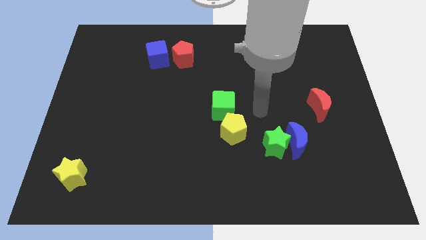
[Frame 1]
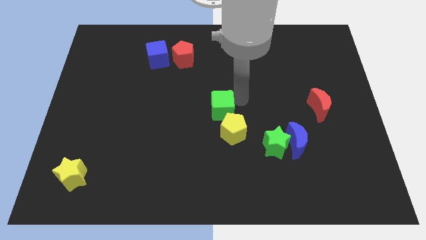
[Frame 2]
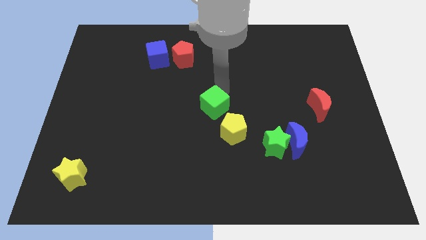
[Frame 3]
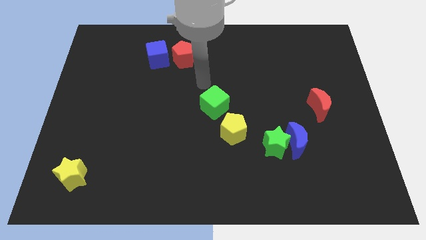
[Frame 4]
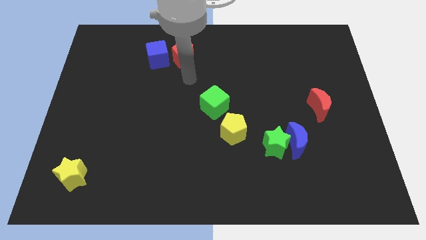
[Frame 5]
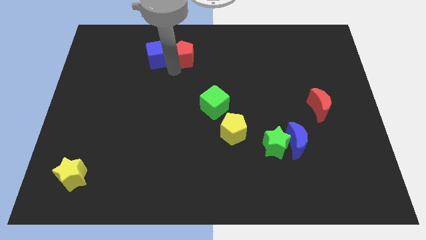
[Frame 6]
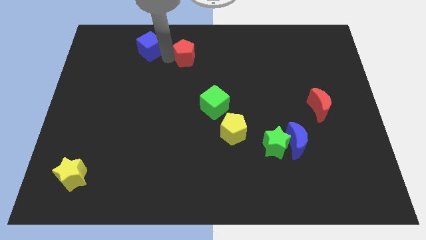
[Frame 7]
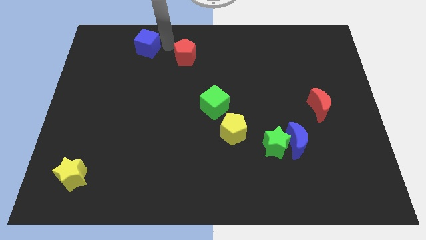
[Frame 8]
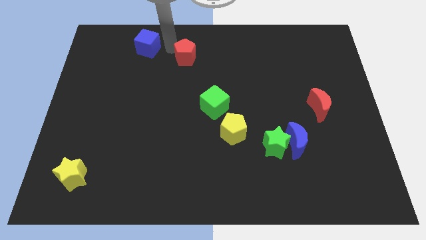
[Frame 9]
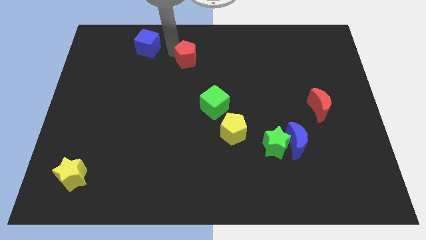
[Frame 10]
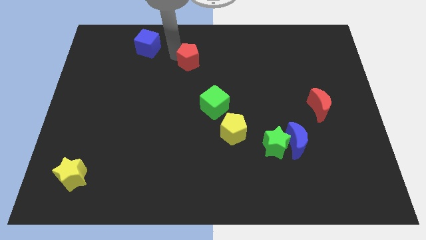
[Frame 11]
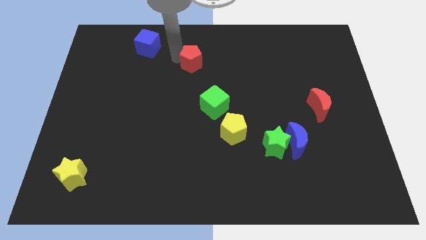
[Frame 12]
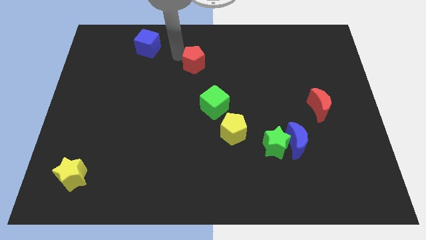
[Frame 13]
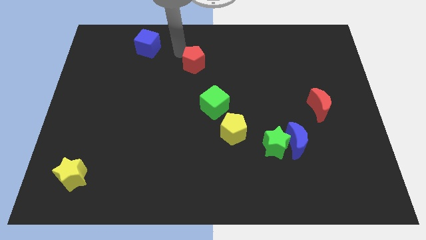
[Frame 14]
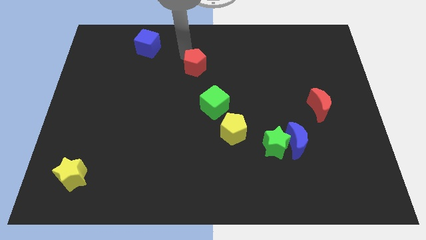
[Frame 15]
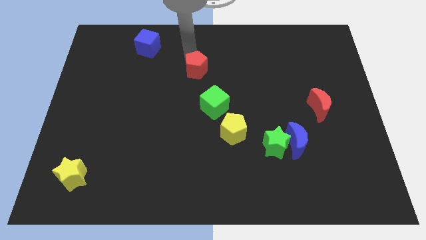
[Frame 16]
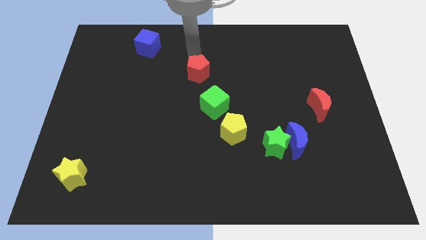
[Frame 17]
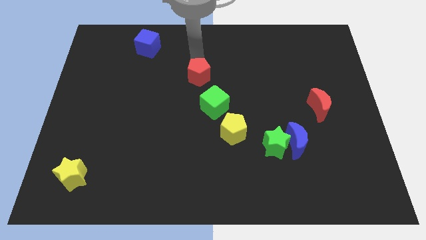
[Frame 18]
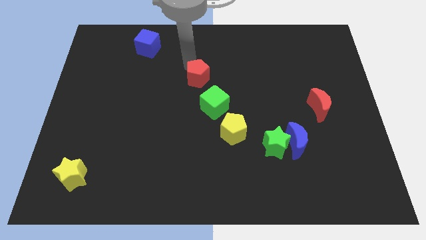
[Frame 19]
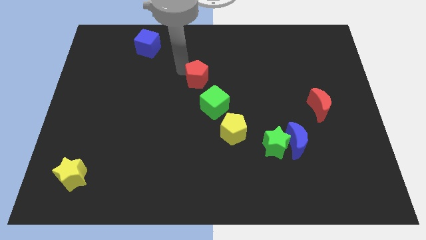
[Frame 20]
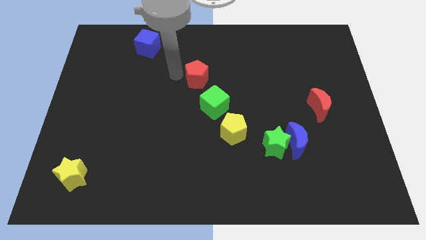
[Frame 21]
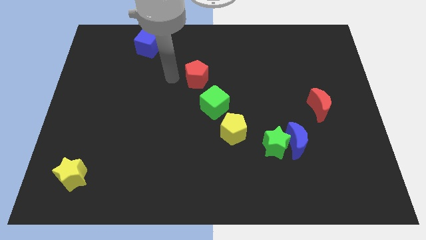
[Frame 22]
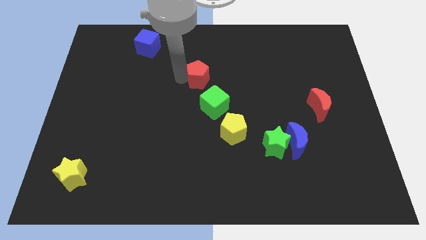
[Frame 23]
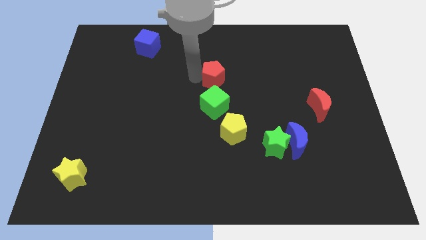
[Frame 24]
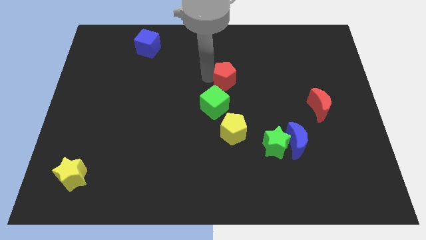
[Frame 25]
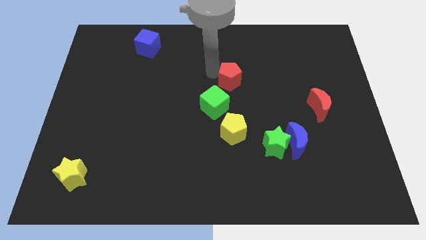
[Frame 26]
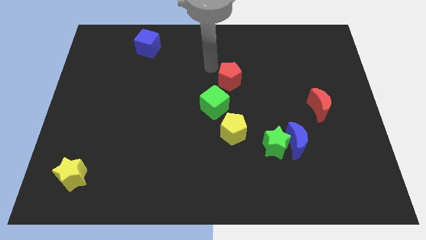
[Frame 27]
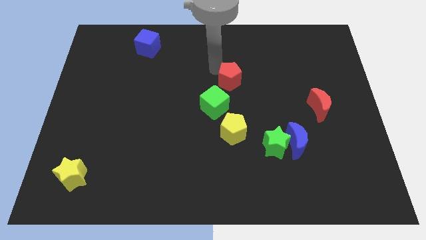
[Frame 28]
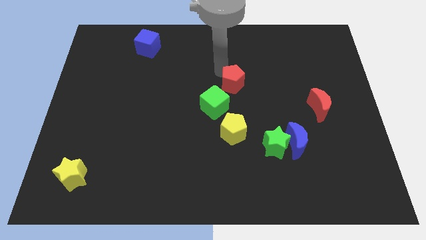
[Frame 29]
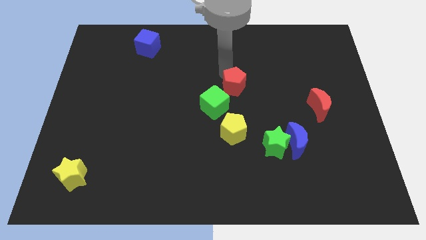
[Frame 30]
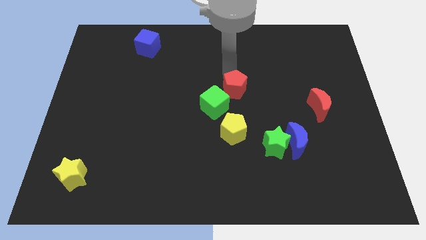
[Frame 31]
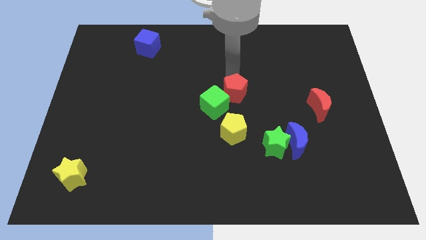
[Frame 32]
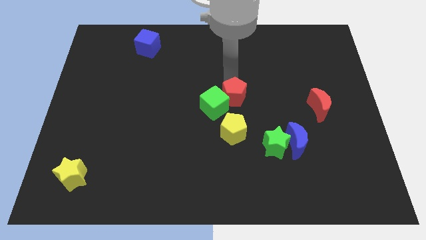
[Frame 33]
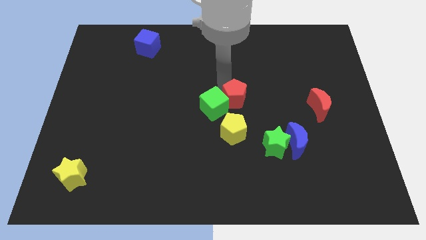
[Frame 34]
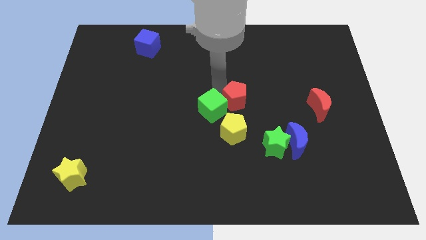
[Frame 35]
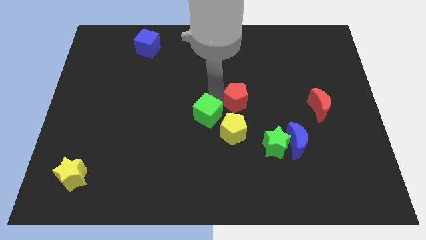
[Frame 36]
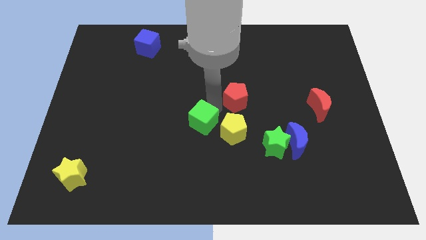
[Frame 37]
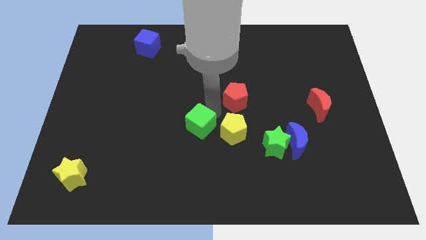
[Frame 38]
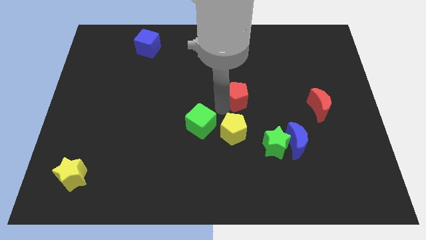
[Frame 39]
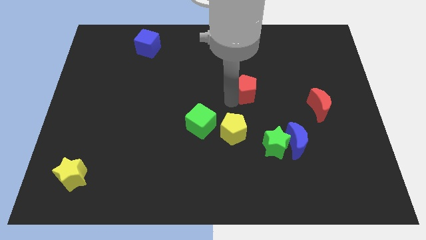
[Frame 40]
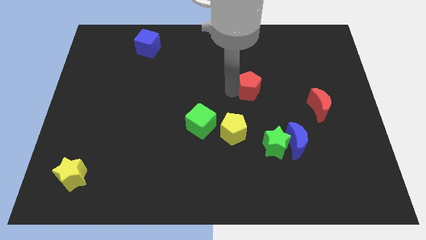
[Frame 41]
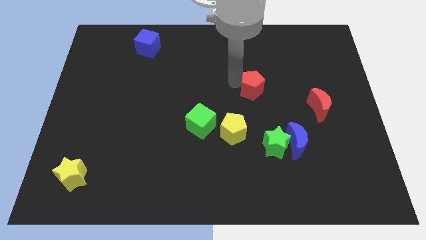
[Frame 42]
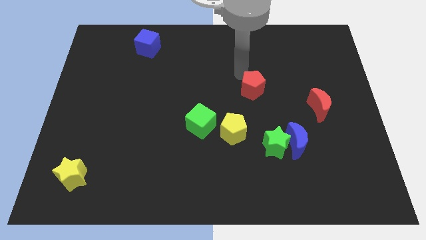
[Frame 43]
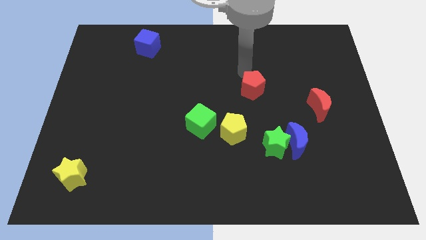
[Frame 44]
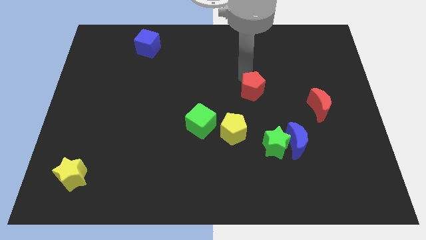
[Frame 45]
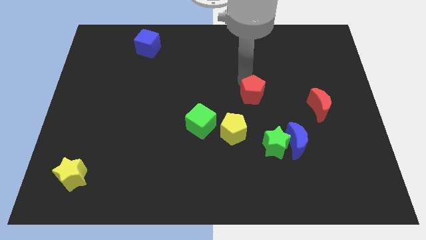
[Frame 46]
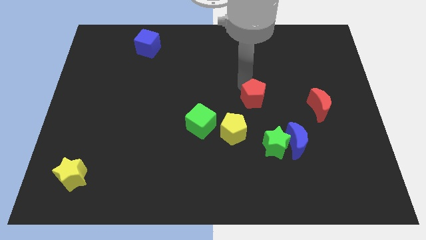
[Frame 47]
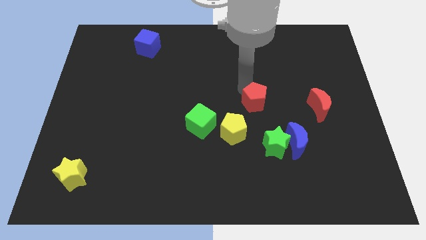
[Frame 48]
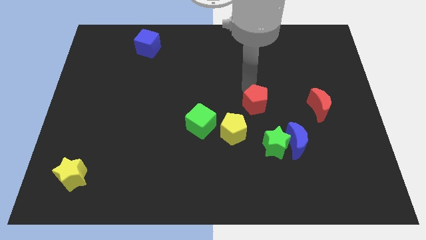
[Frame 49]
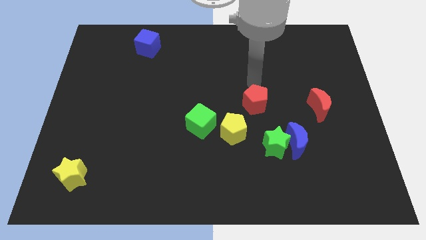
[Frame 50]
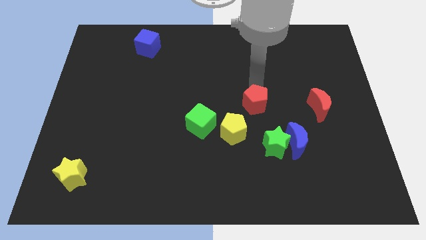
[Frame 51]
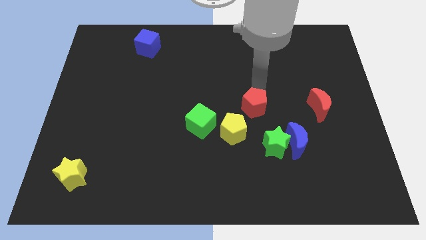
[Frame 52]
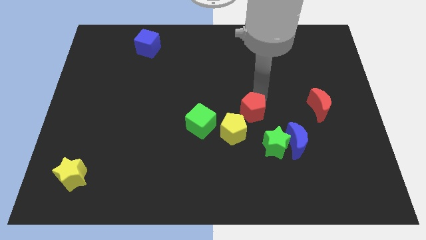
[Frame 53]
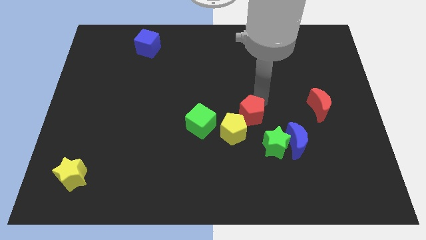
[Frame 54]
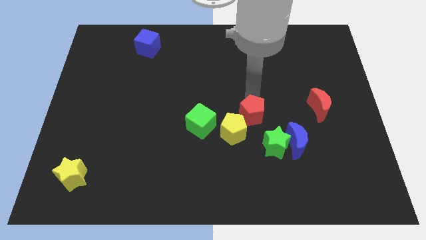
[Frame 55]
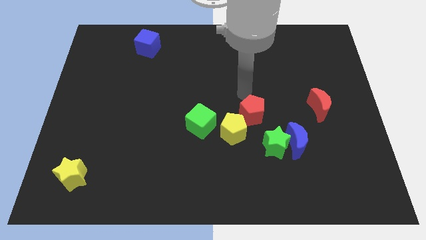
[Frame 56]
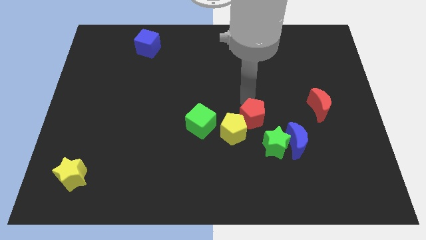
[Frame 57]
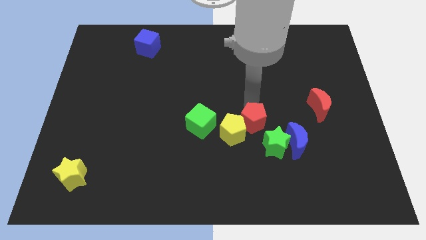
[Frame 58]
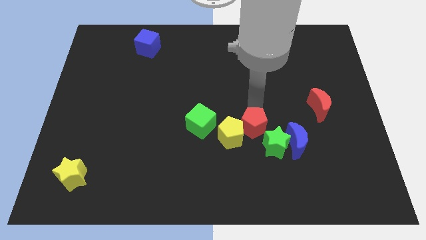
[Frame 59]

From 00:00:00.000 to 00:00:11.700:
put the red pentagon just left of the blue moon

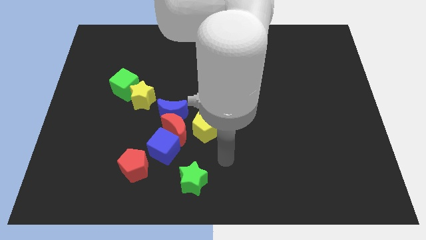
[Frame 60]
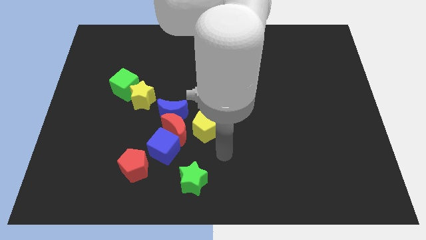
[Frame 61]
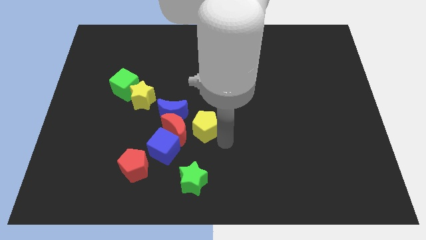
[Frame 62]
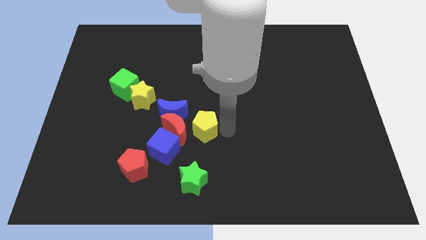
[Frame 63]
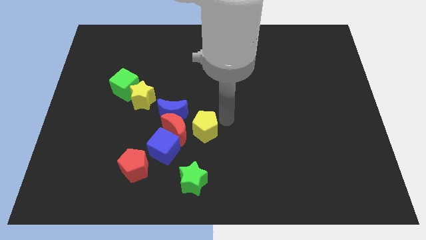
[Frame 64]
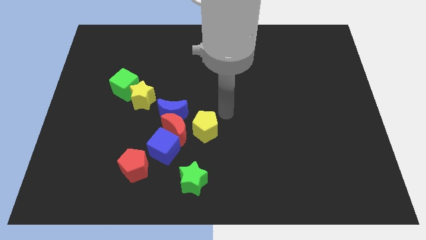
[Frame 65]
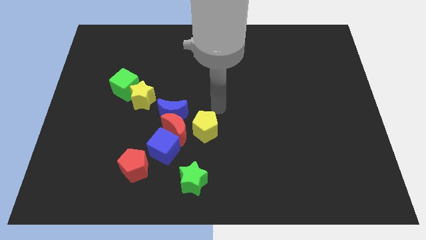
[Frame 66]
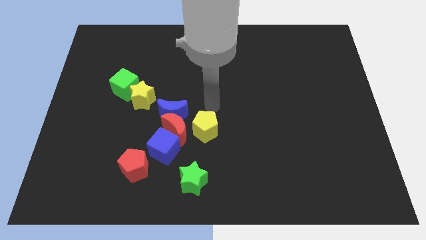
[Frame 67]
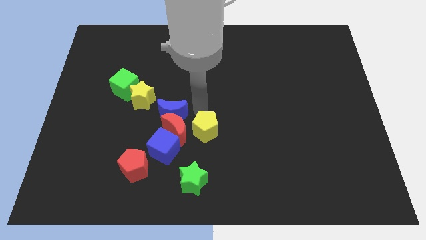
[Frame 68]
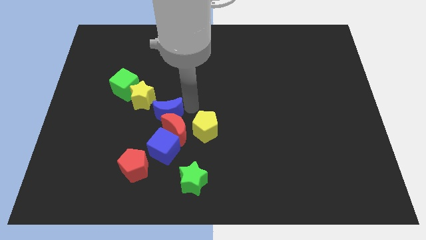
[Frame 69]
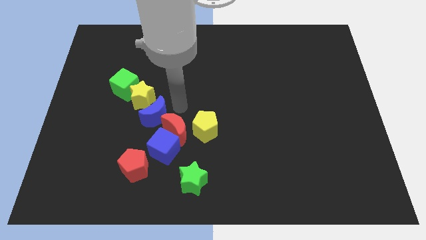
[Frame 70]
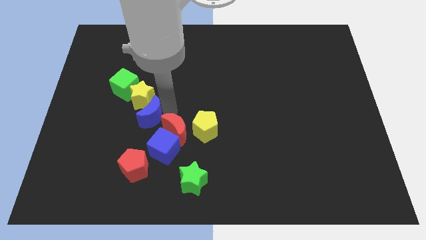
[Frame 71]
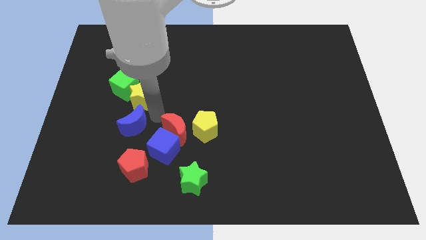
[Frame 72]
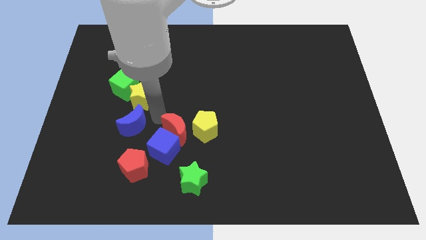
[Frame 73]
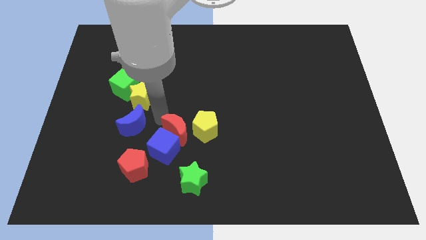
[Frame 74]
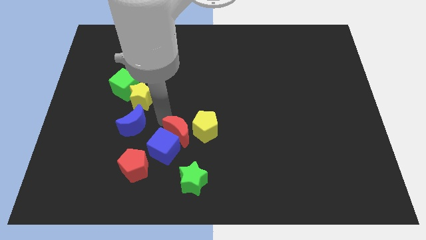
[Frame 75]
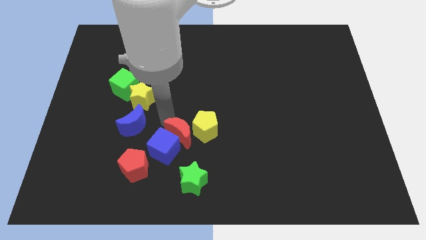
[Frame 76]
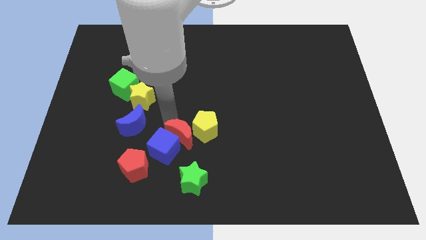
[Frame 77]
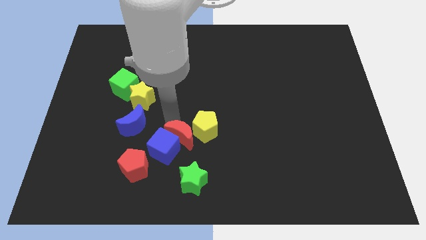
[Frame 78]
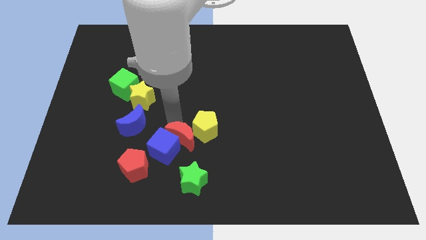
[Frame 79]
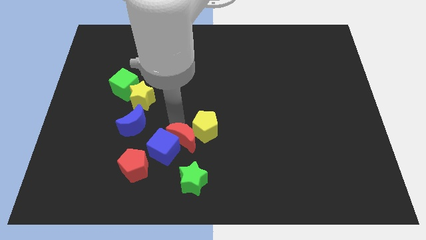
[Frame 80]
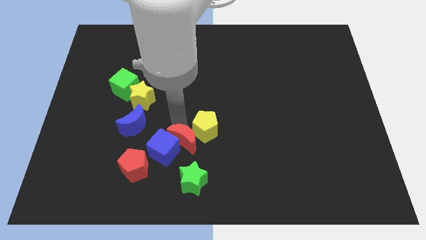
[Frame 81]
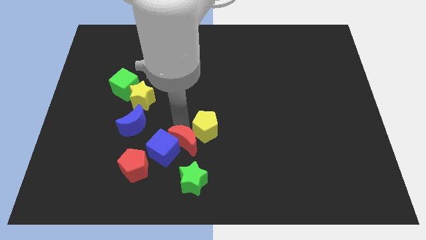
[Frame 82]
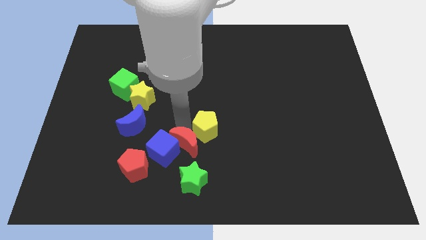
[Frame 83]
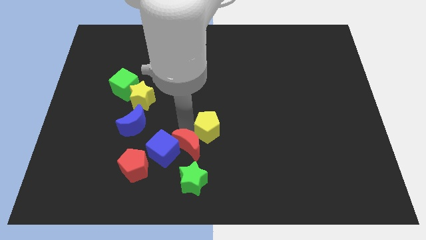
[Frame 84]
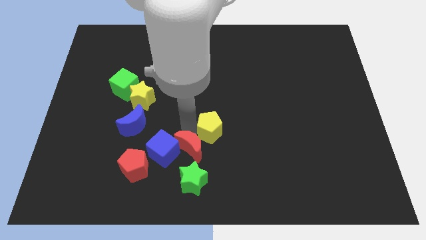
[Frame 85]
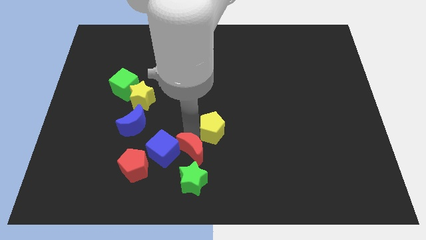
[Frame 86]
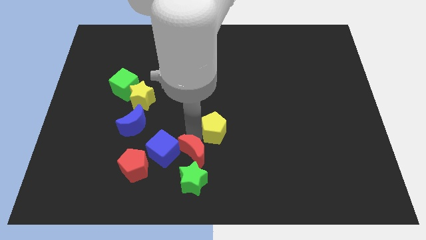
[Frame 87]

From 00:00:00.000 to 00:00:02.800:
slide the red moon to the top right side of the green star
